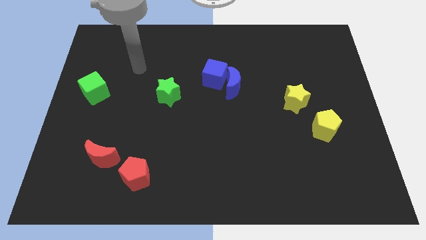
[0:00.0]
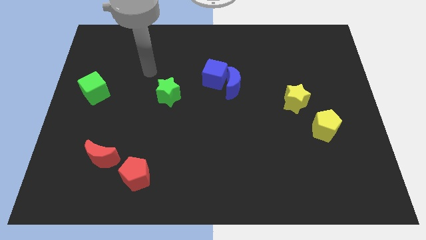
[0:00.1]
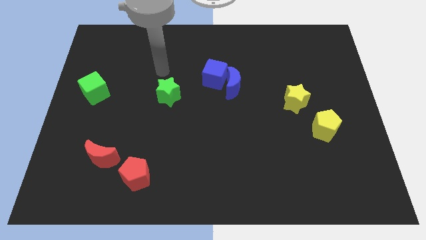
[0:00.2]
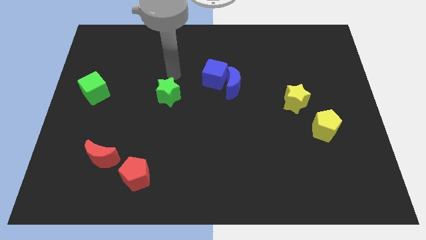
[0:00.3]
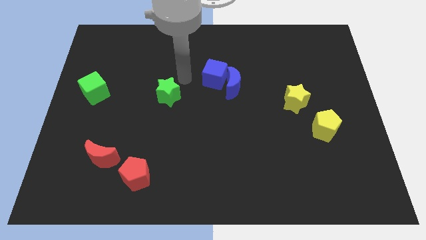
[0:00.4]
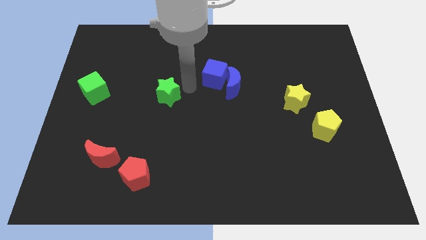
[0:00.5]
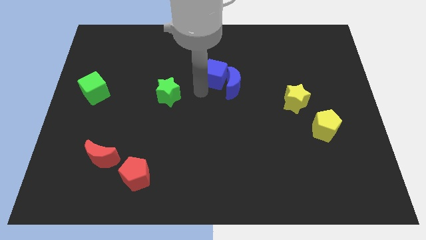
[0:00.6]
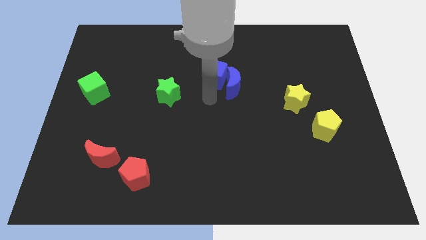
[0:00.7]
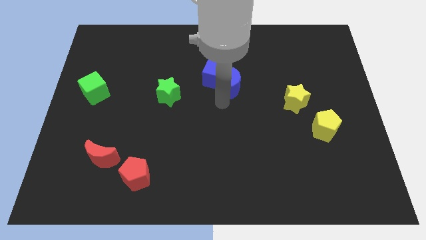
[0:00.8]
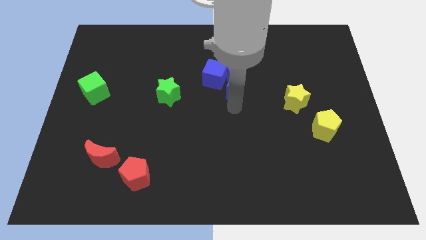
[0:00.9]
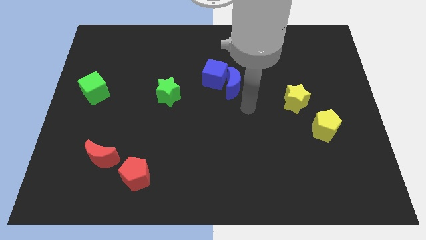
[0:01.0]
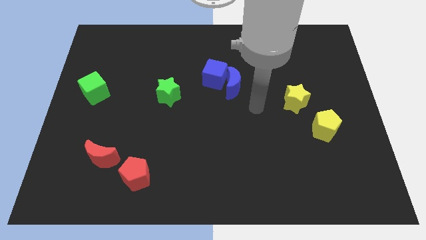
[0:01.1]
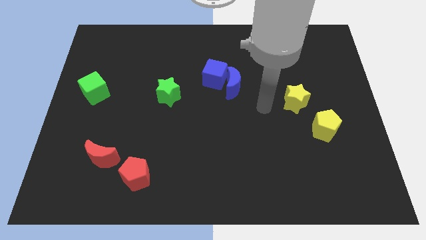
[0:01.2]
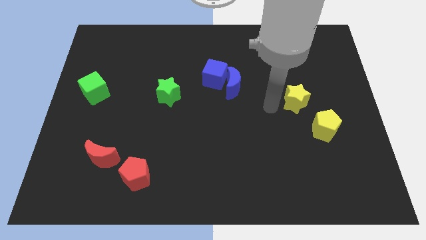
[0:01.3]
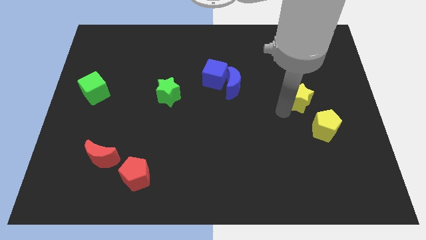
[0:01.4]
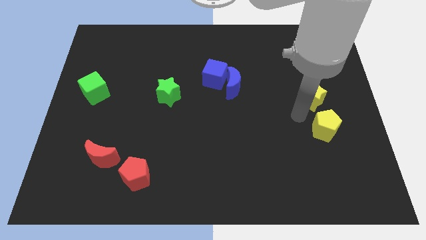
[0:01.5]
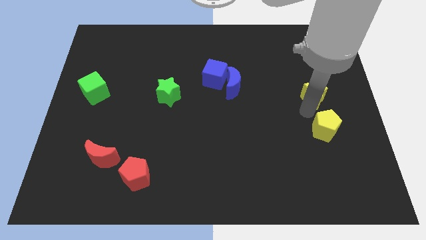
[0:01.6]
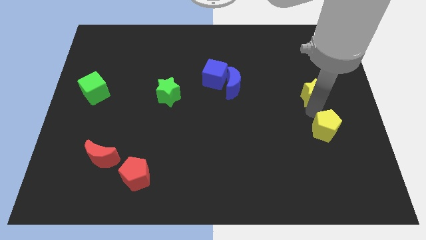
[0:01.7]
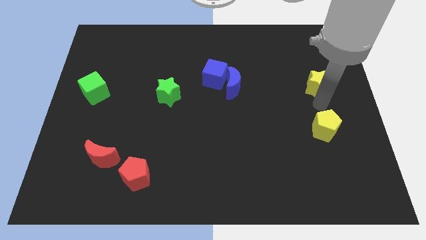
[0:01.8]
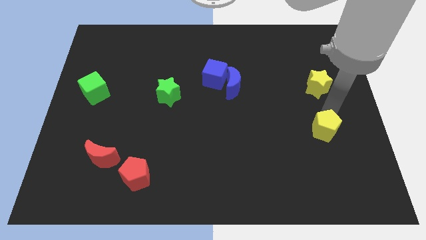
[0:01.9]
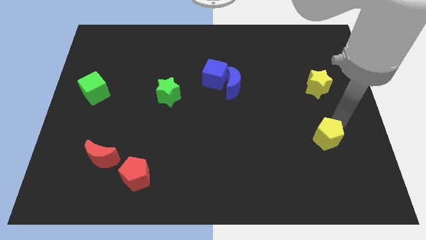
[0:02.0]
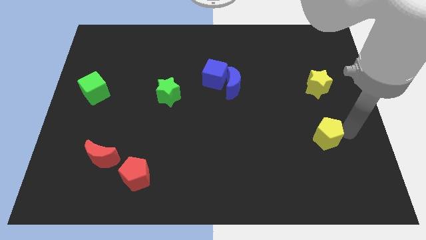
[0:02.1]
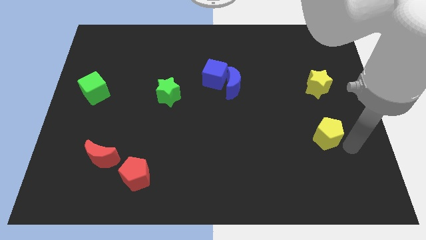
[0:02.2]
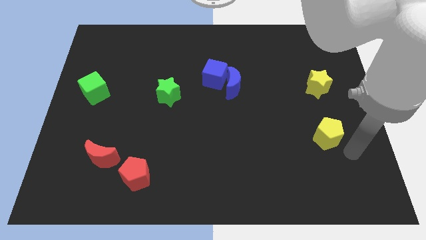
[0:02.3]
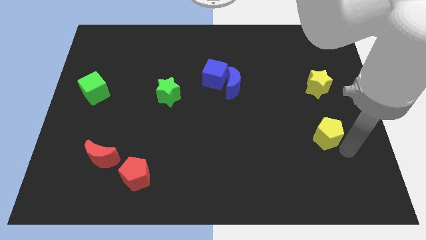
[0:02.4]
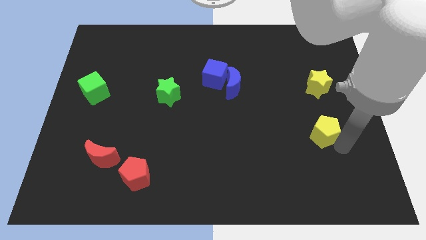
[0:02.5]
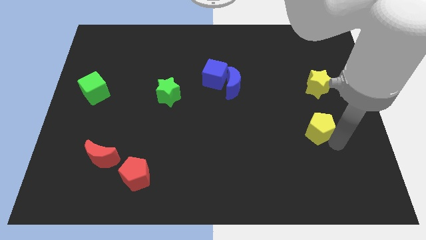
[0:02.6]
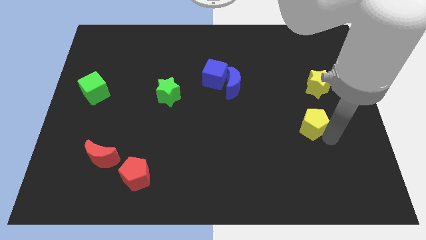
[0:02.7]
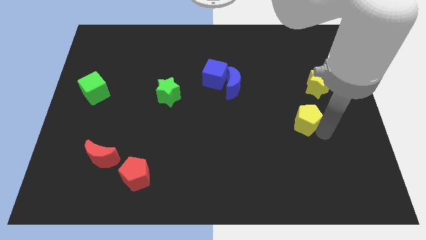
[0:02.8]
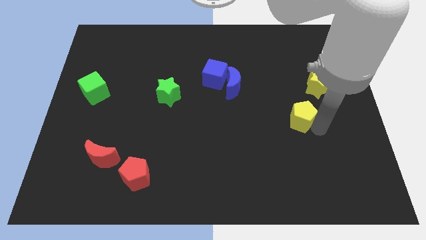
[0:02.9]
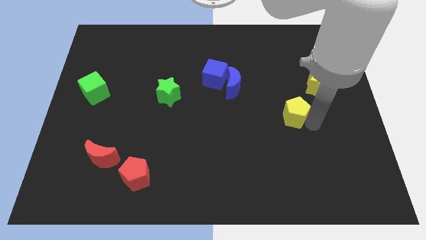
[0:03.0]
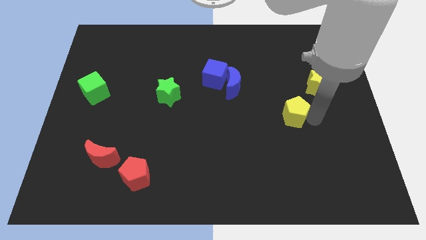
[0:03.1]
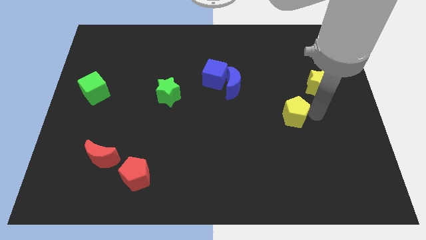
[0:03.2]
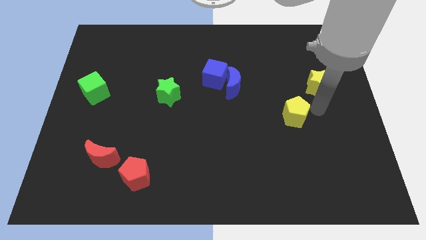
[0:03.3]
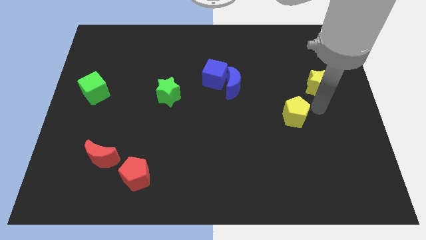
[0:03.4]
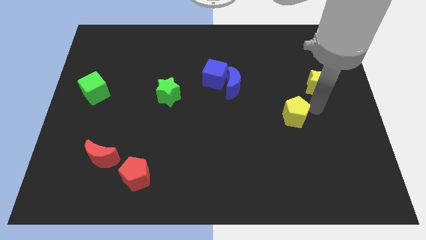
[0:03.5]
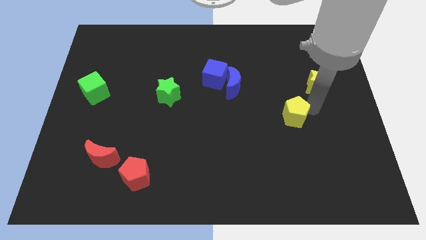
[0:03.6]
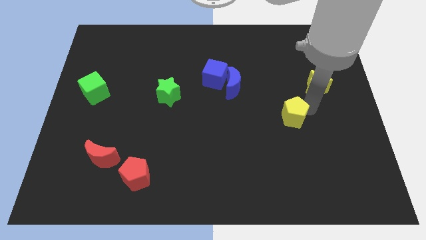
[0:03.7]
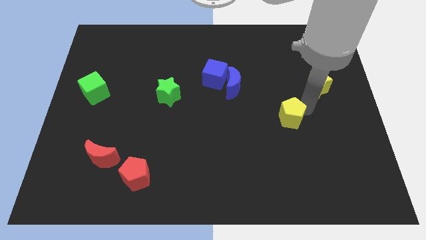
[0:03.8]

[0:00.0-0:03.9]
move the yellow pentagon to the left a little bit

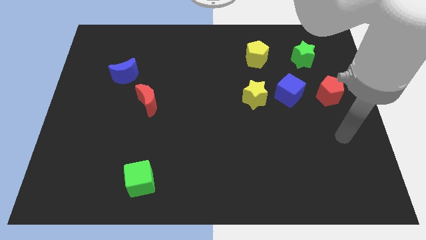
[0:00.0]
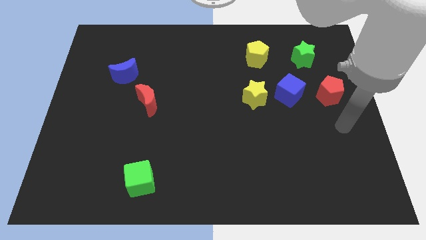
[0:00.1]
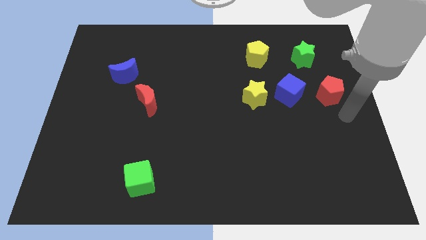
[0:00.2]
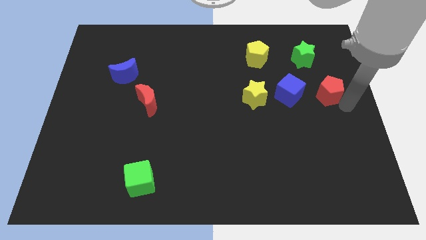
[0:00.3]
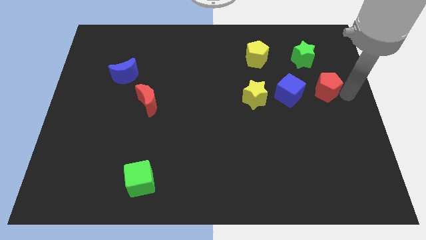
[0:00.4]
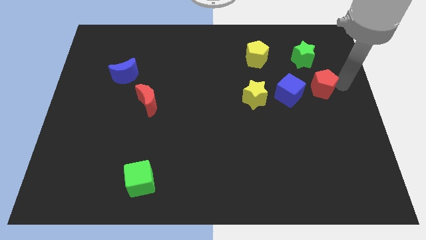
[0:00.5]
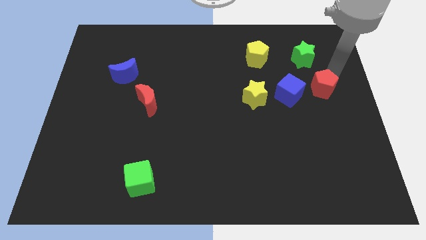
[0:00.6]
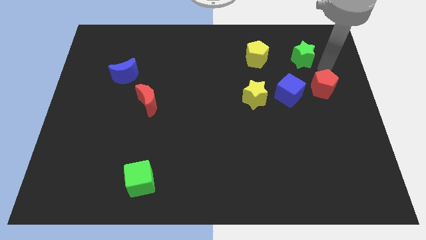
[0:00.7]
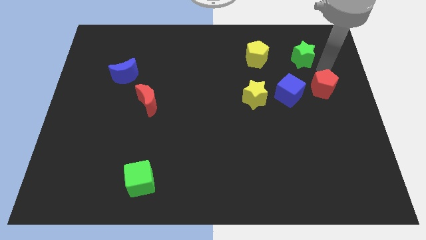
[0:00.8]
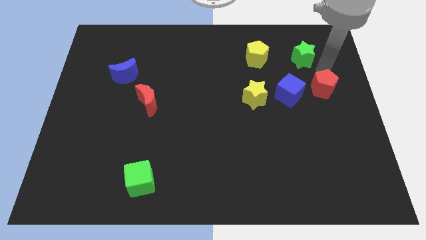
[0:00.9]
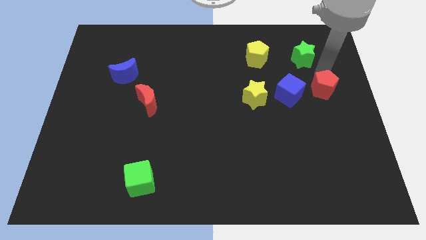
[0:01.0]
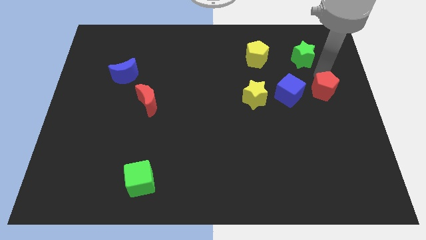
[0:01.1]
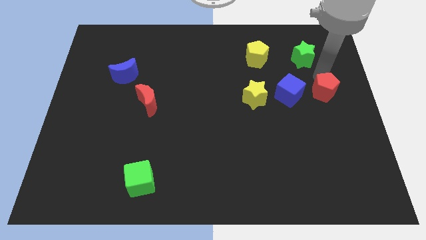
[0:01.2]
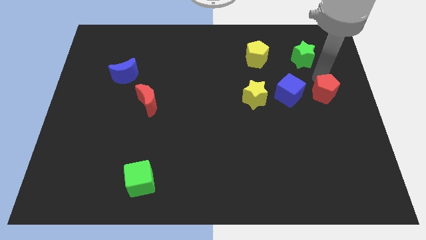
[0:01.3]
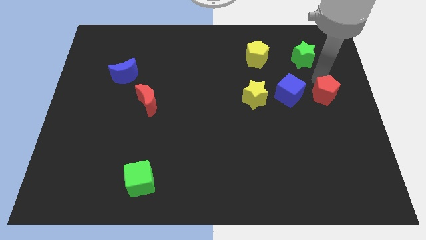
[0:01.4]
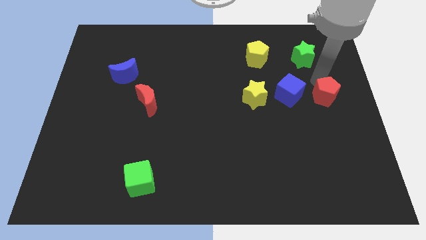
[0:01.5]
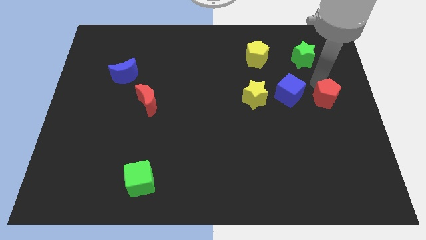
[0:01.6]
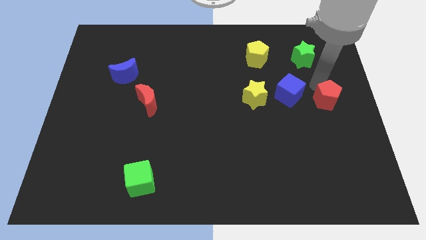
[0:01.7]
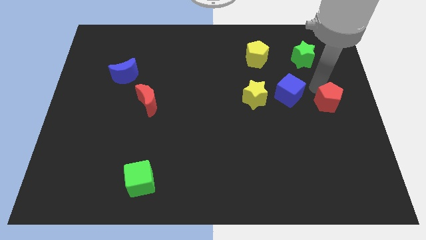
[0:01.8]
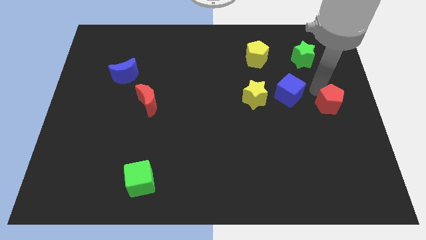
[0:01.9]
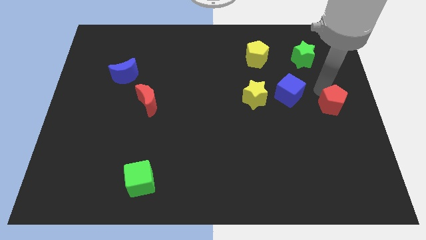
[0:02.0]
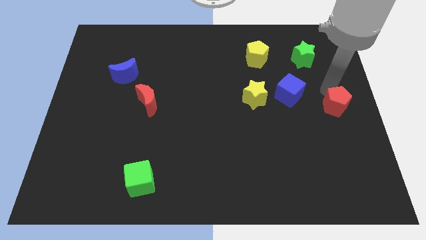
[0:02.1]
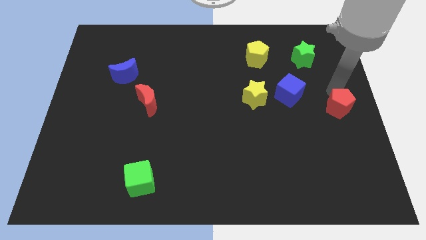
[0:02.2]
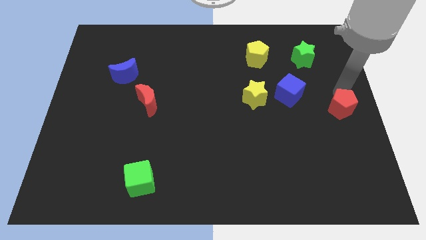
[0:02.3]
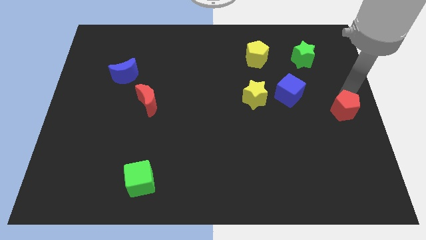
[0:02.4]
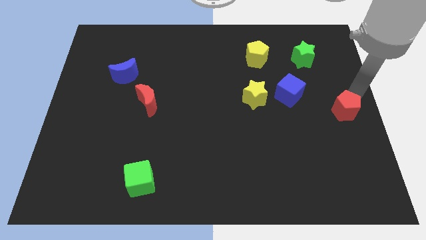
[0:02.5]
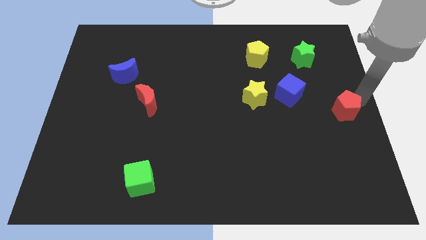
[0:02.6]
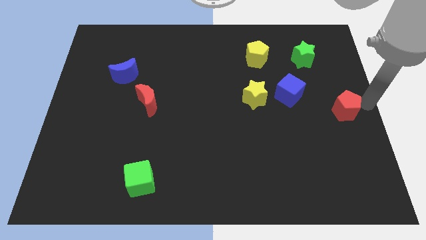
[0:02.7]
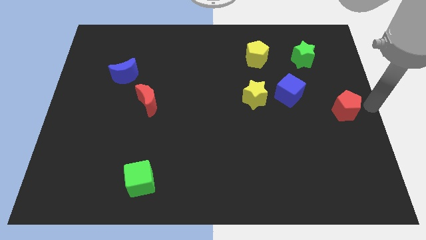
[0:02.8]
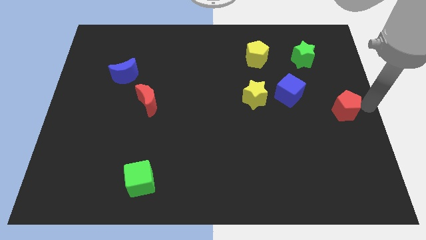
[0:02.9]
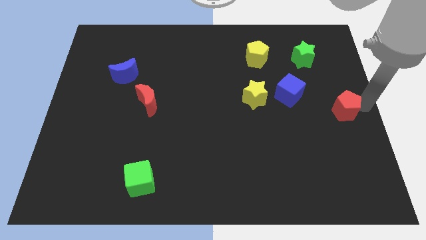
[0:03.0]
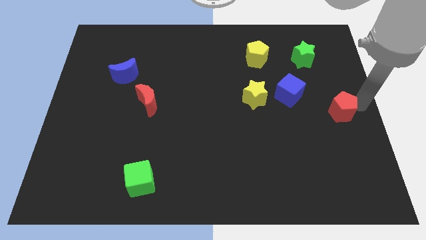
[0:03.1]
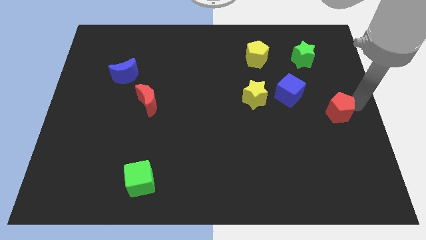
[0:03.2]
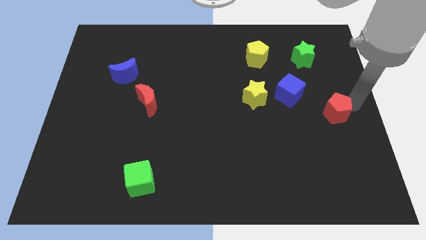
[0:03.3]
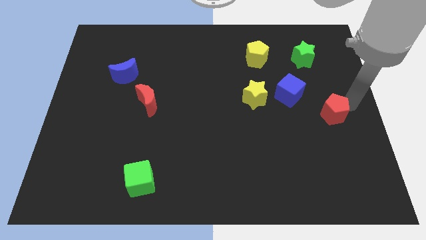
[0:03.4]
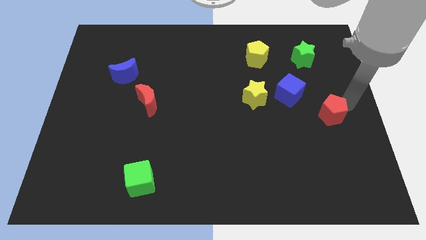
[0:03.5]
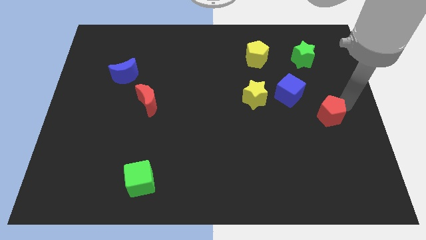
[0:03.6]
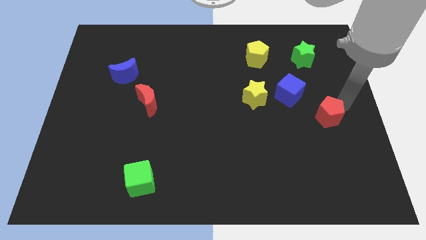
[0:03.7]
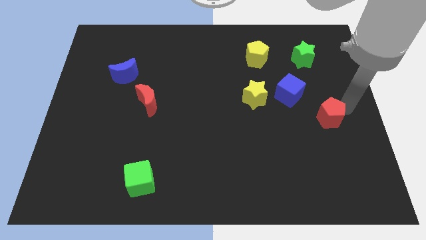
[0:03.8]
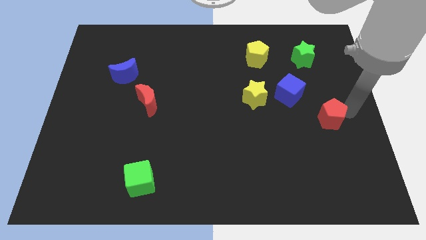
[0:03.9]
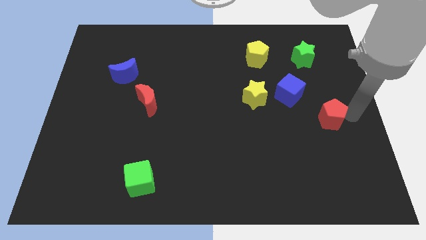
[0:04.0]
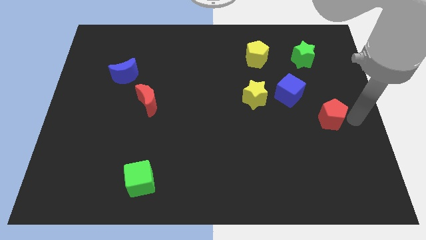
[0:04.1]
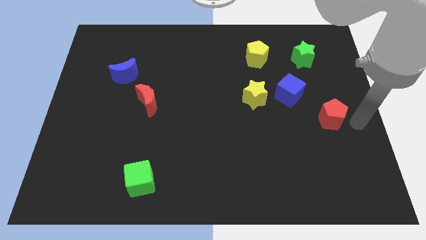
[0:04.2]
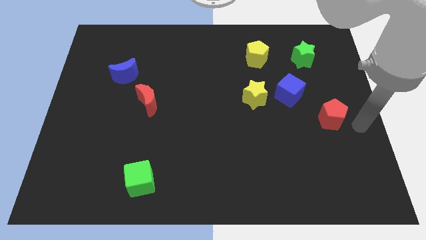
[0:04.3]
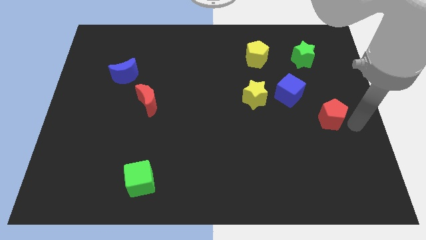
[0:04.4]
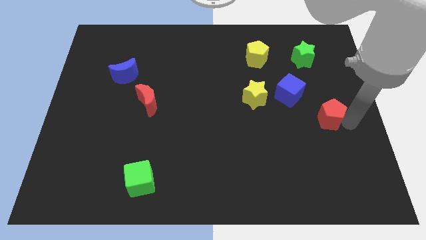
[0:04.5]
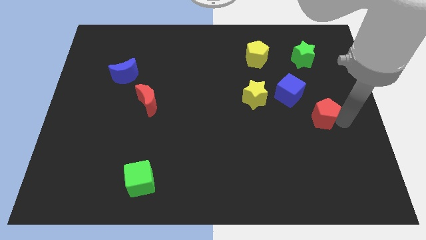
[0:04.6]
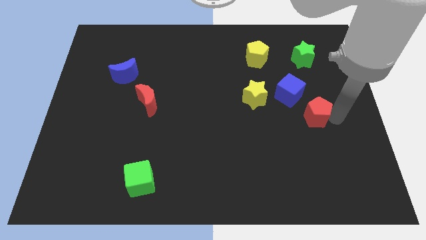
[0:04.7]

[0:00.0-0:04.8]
push the red pentagon a little down and then left
